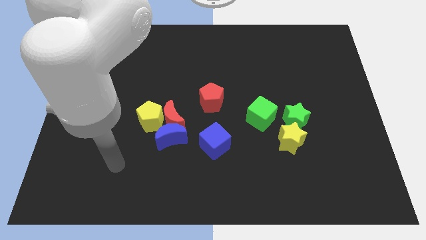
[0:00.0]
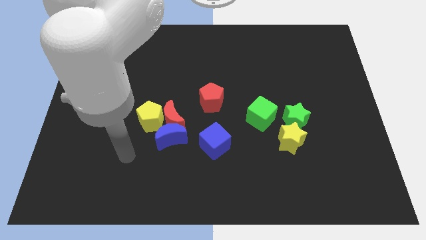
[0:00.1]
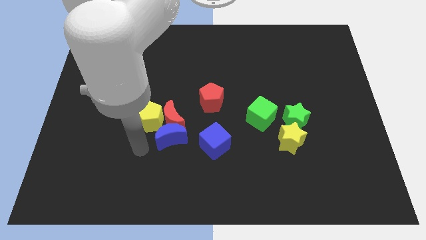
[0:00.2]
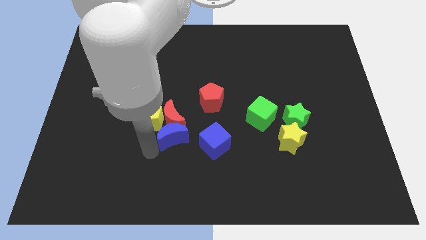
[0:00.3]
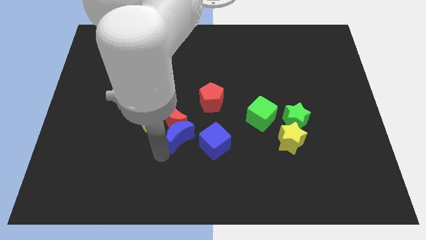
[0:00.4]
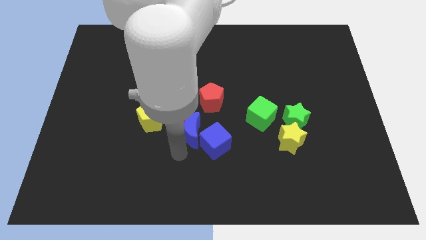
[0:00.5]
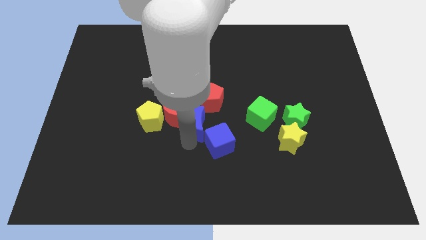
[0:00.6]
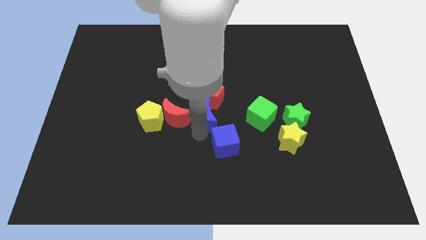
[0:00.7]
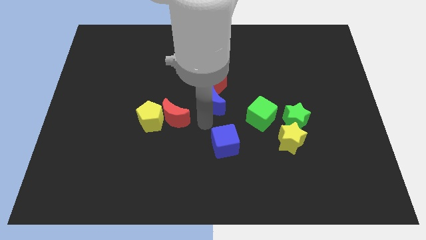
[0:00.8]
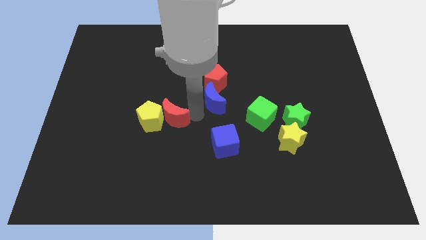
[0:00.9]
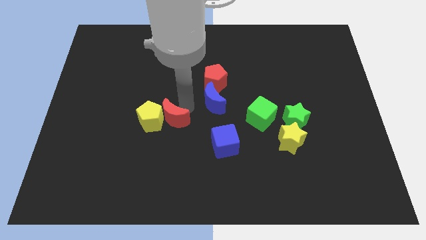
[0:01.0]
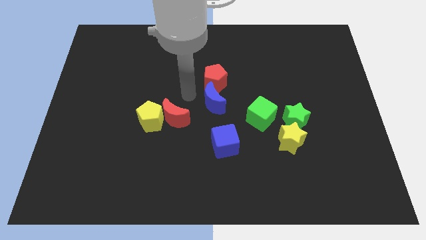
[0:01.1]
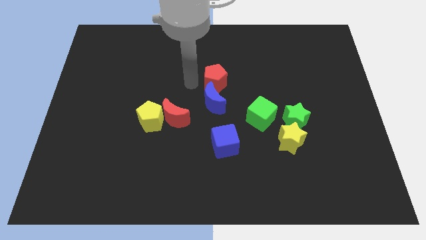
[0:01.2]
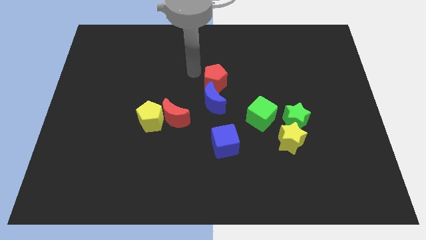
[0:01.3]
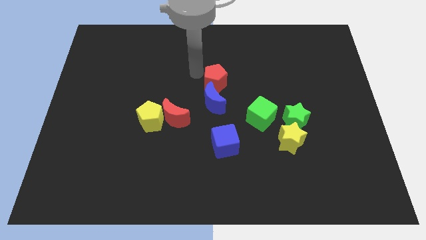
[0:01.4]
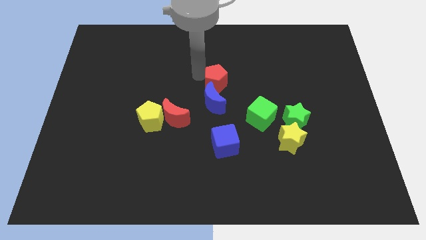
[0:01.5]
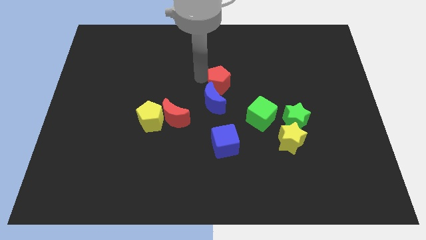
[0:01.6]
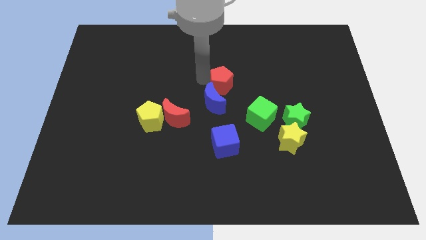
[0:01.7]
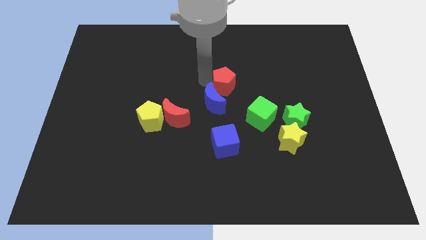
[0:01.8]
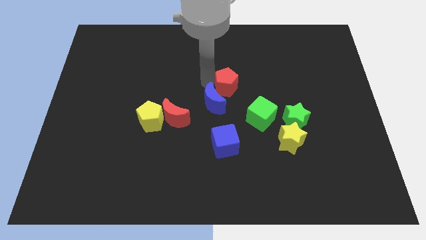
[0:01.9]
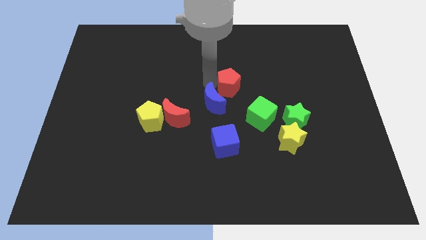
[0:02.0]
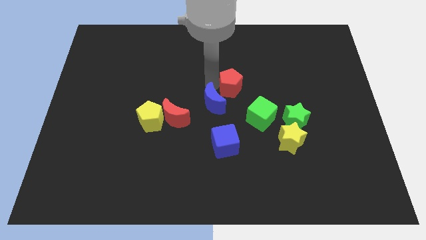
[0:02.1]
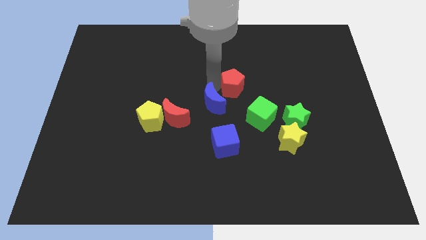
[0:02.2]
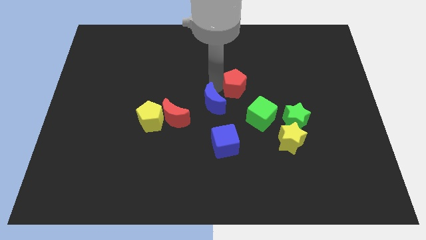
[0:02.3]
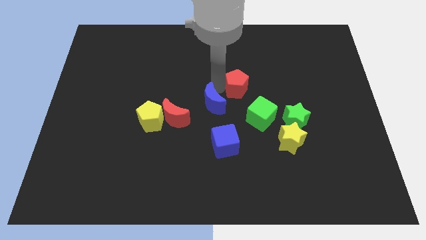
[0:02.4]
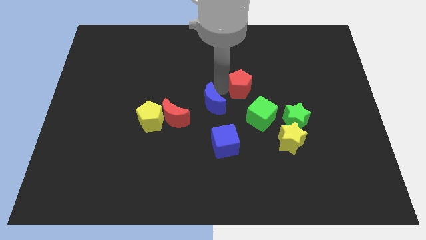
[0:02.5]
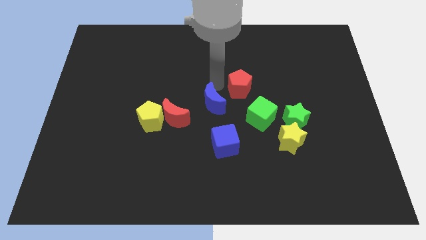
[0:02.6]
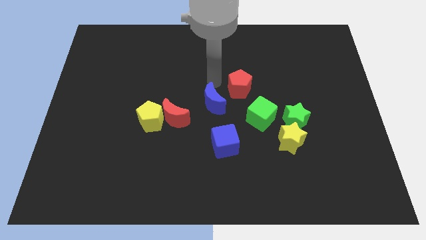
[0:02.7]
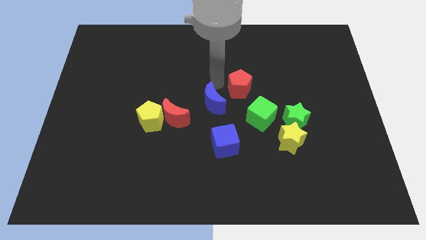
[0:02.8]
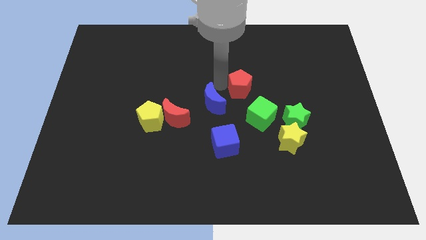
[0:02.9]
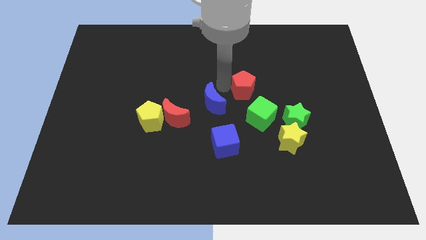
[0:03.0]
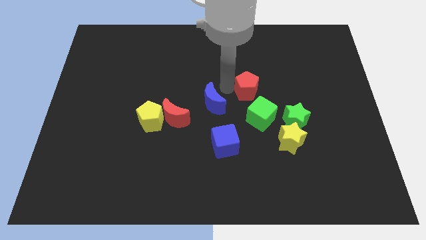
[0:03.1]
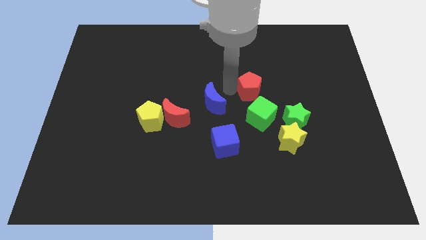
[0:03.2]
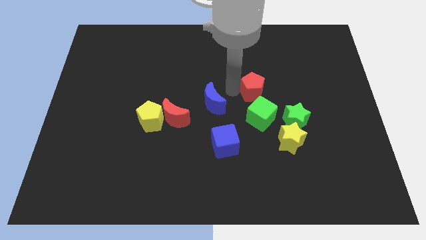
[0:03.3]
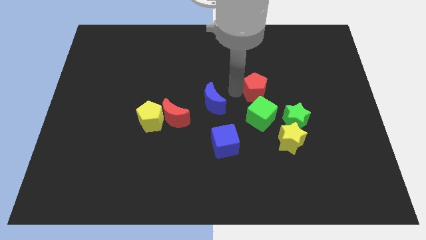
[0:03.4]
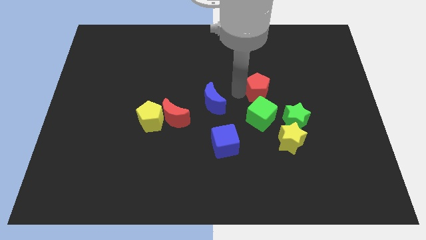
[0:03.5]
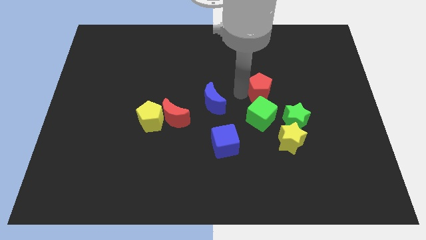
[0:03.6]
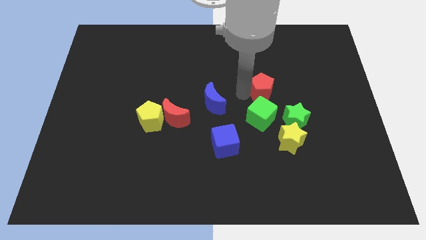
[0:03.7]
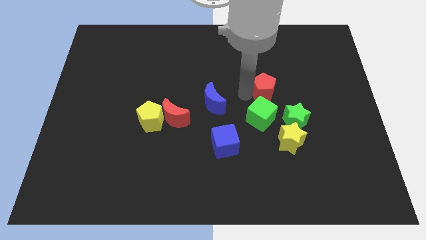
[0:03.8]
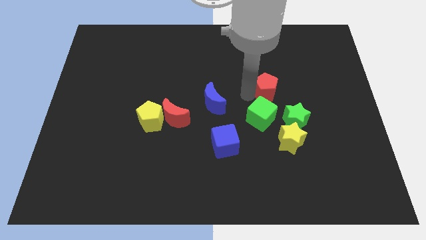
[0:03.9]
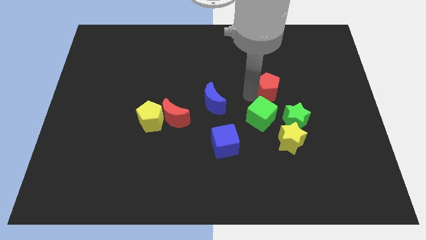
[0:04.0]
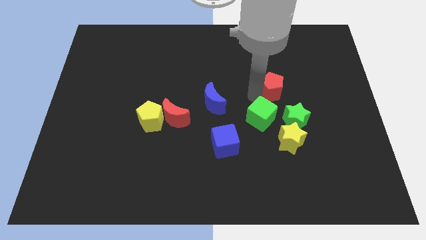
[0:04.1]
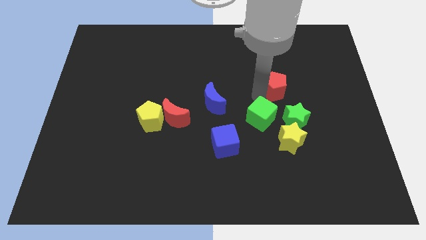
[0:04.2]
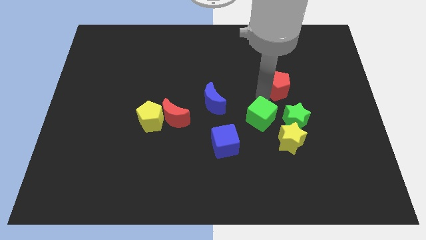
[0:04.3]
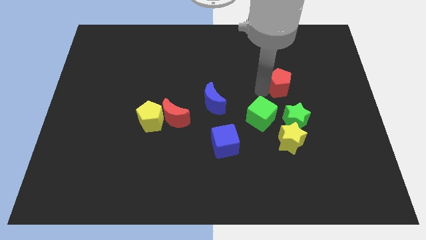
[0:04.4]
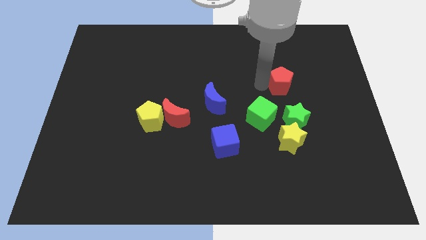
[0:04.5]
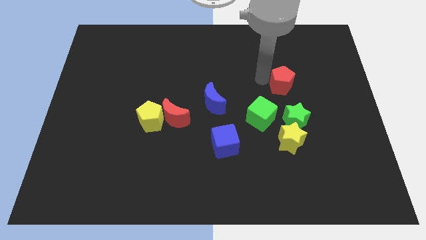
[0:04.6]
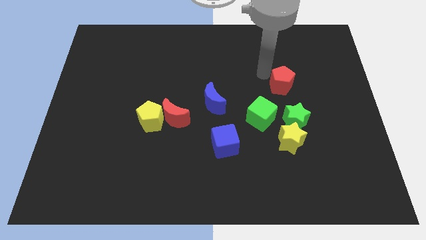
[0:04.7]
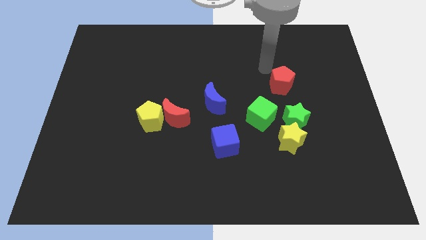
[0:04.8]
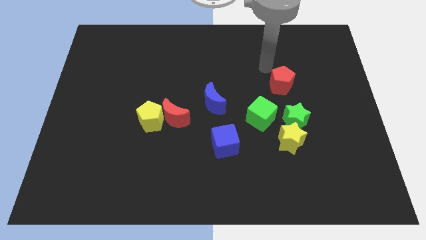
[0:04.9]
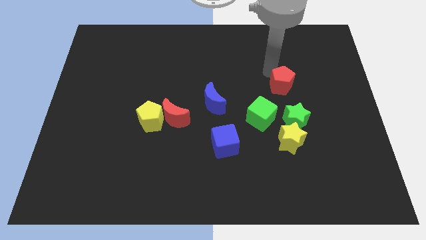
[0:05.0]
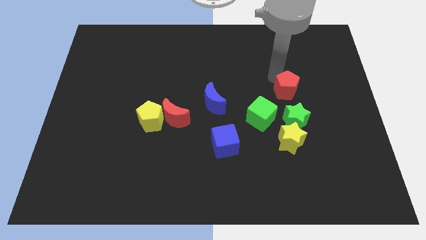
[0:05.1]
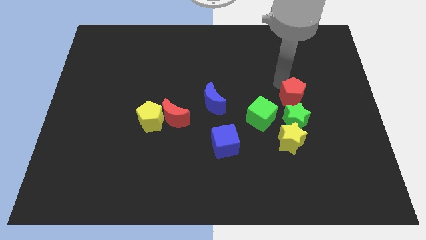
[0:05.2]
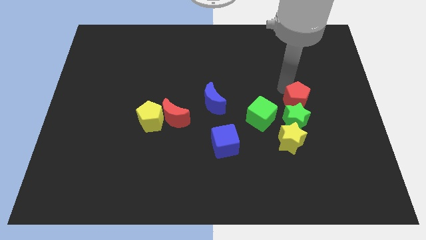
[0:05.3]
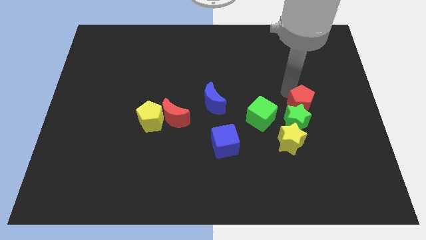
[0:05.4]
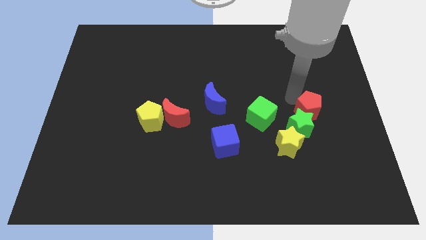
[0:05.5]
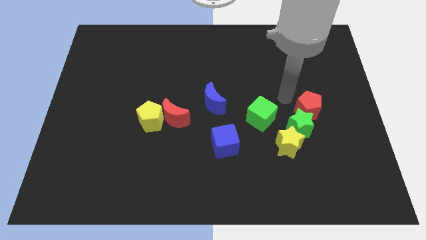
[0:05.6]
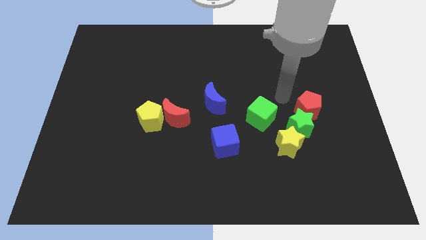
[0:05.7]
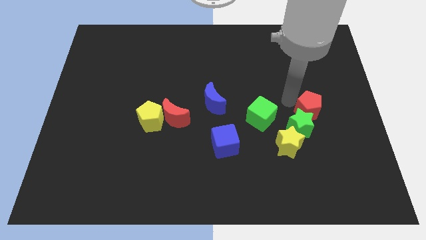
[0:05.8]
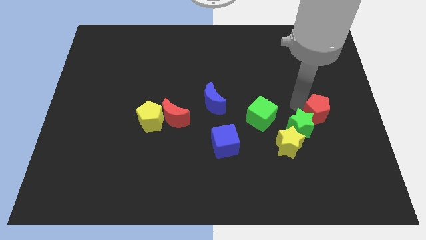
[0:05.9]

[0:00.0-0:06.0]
push the red pentagon right of the green star

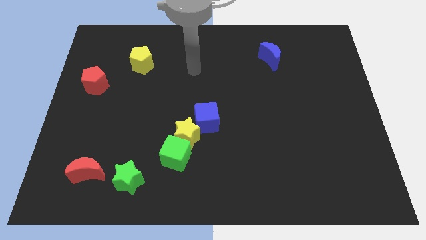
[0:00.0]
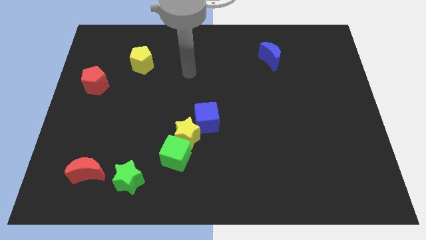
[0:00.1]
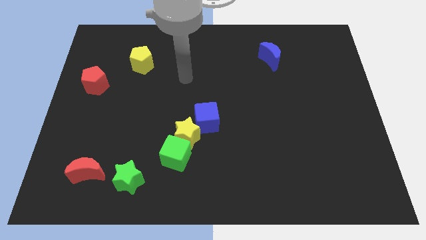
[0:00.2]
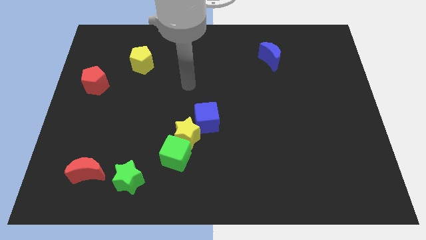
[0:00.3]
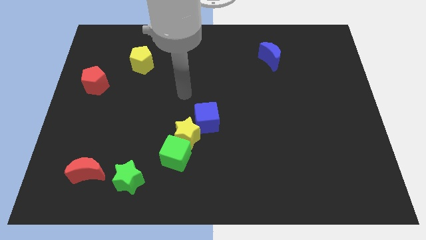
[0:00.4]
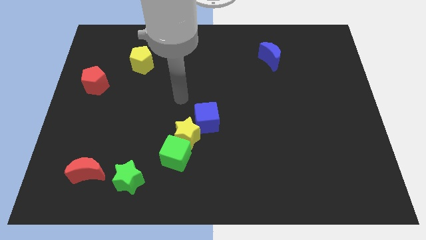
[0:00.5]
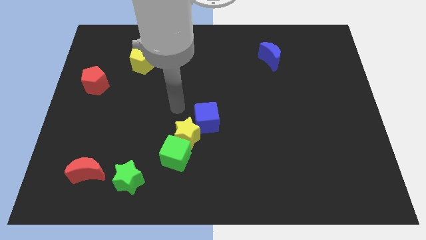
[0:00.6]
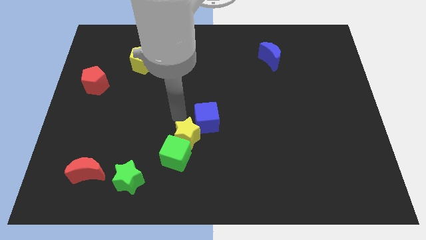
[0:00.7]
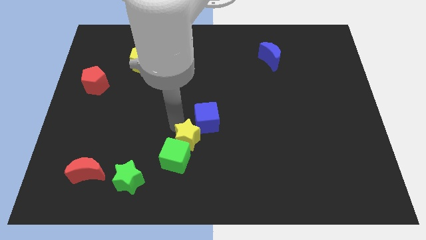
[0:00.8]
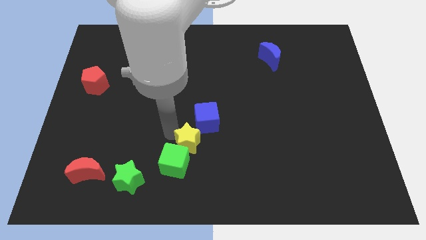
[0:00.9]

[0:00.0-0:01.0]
push the green cube to the right of the green star
